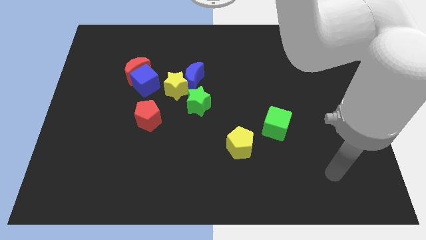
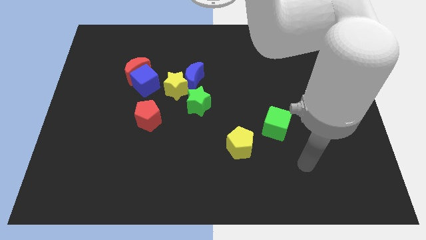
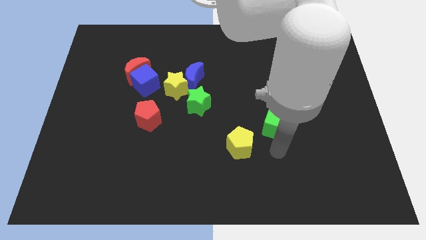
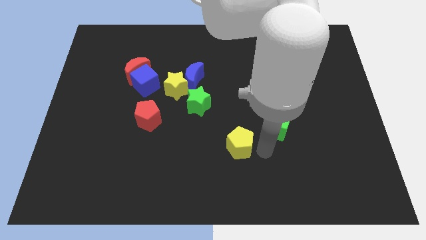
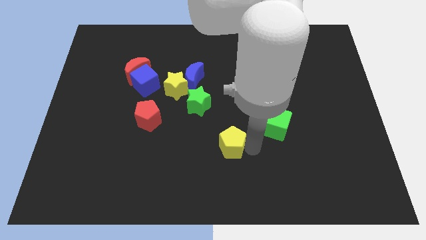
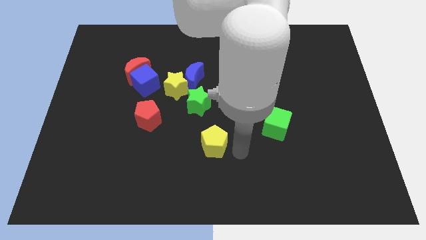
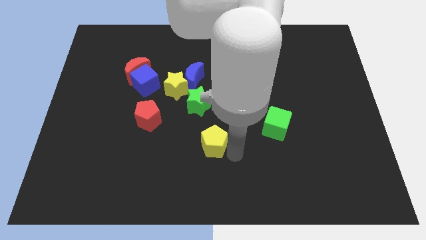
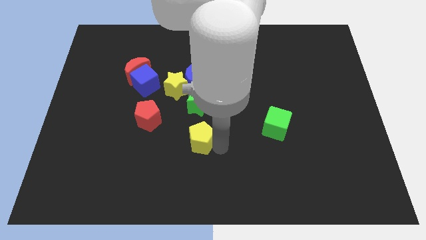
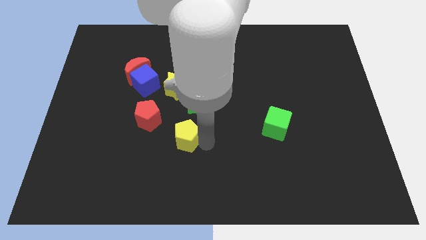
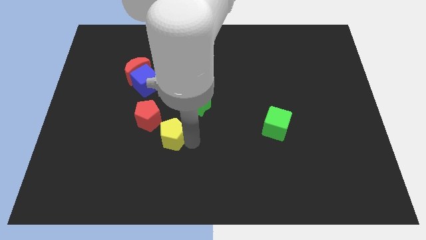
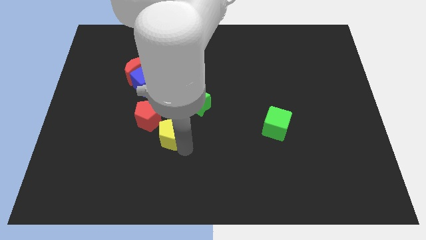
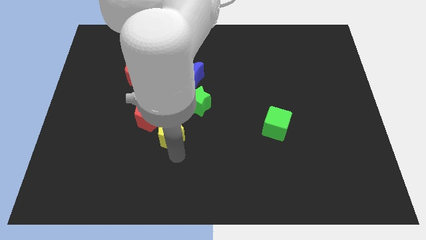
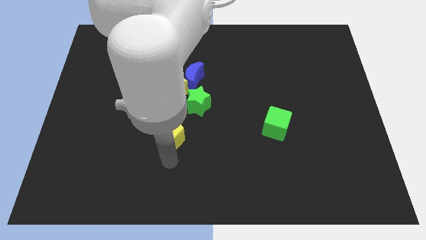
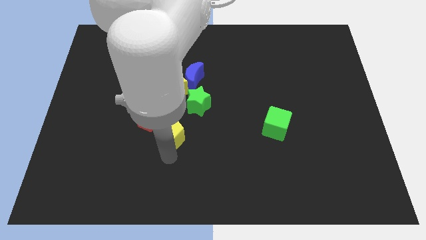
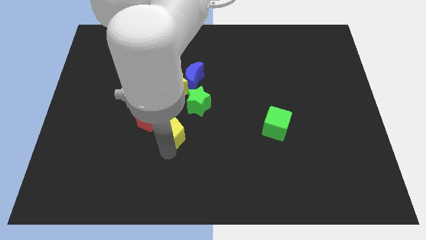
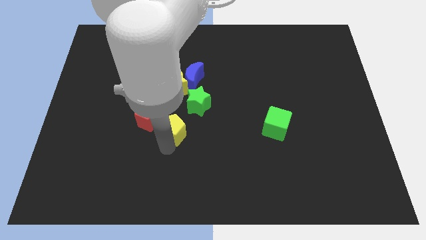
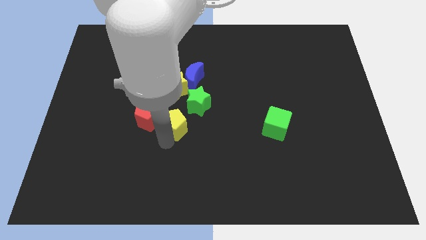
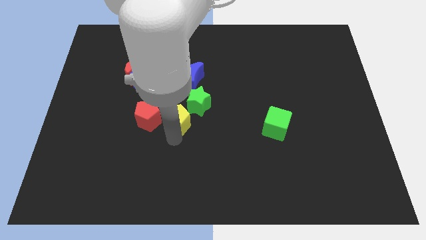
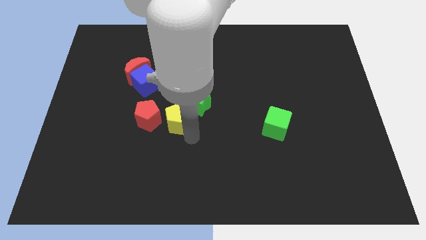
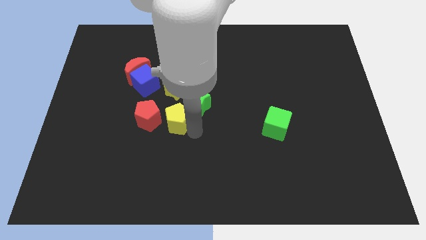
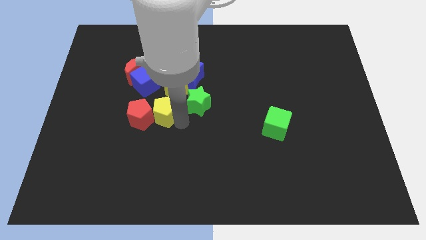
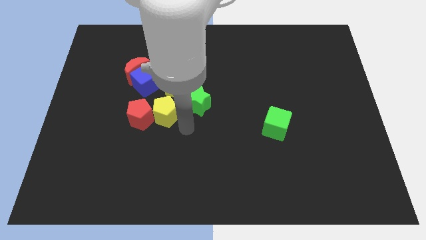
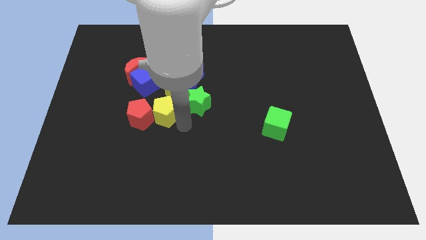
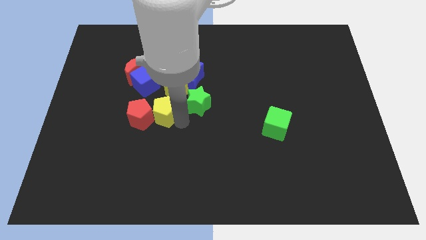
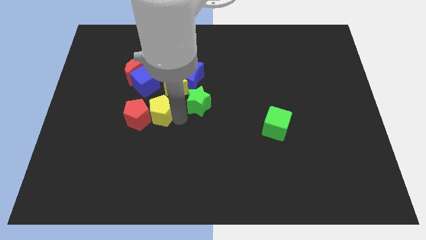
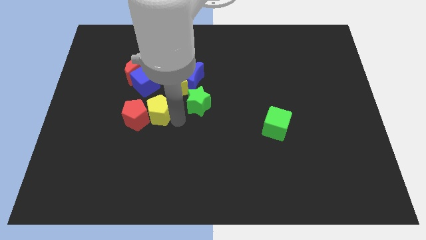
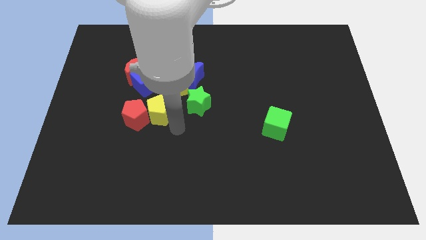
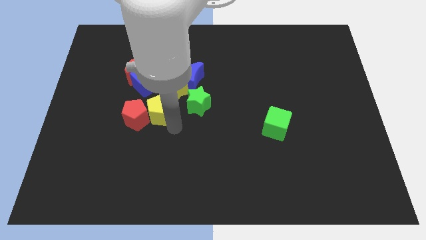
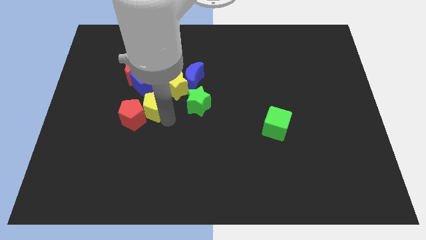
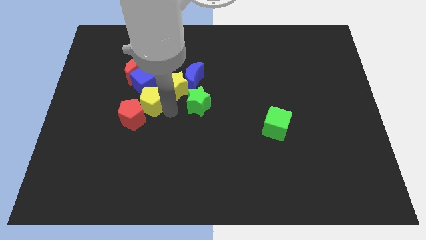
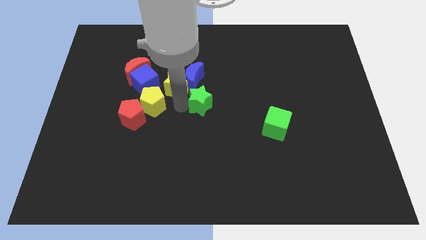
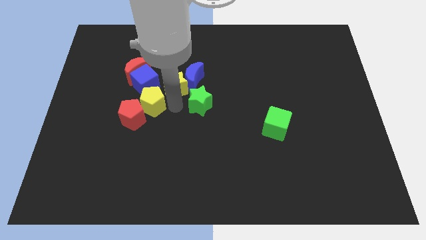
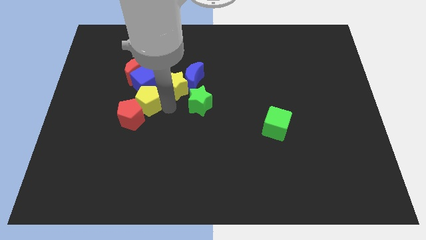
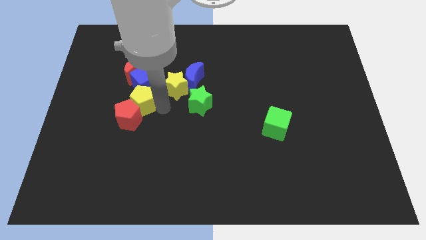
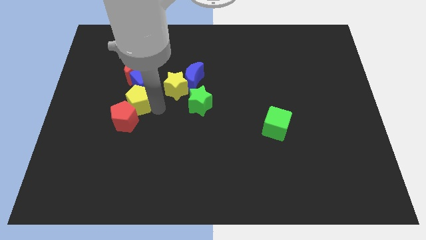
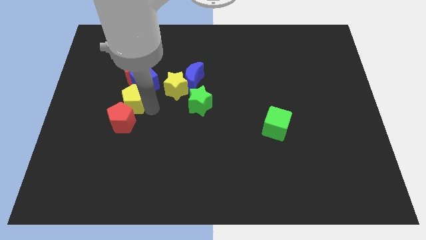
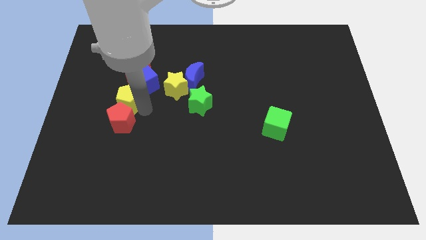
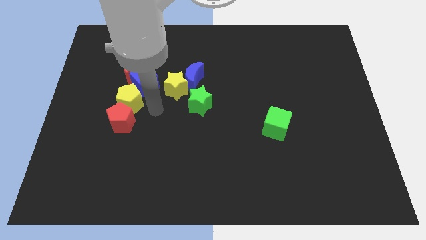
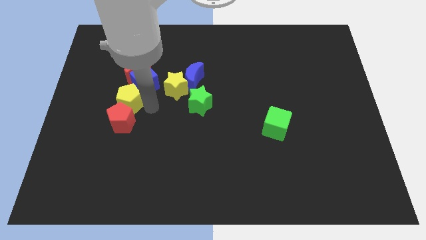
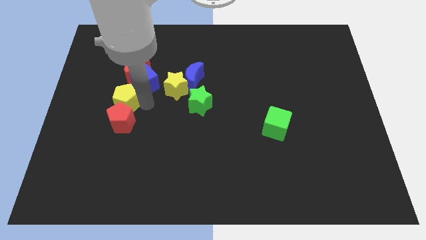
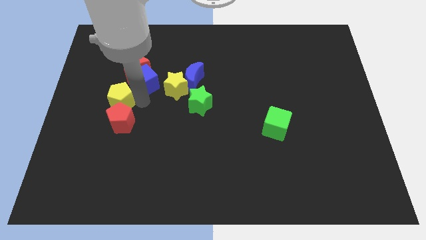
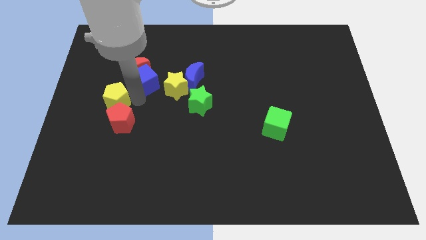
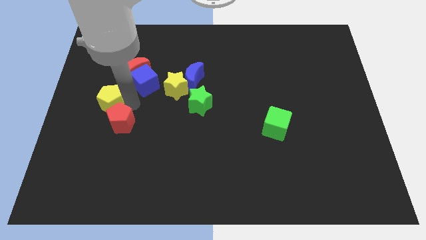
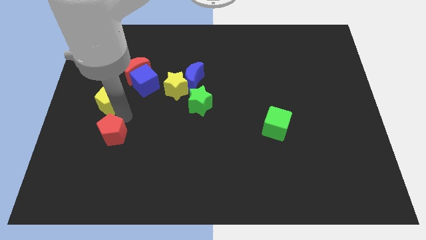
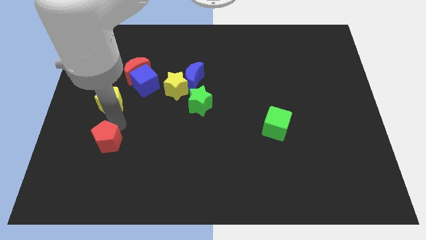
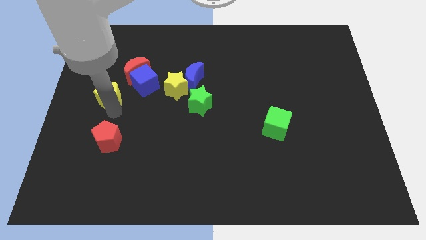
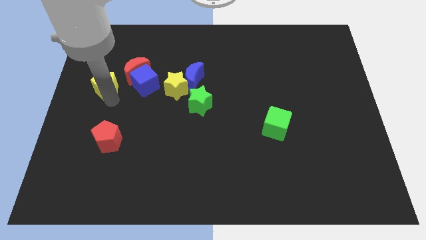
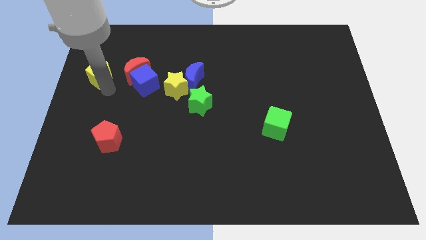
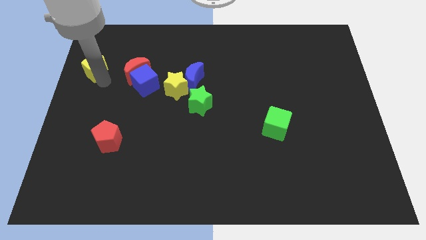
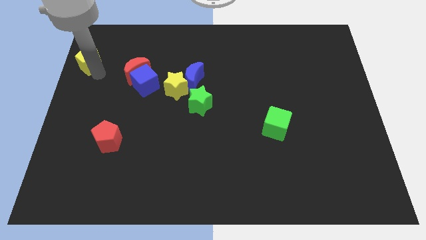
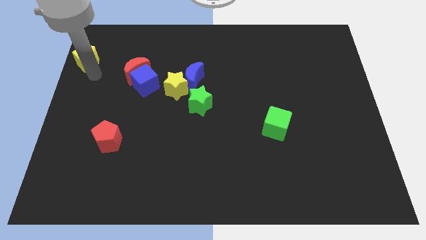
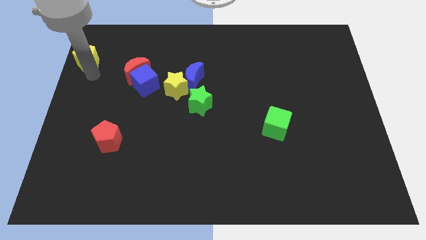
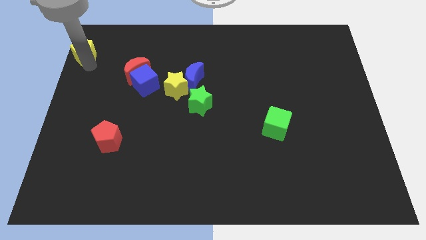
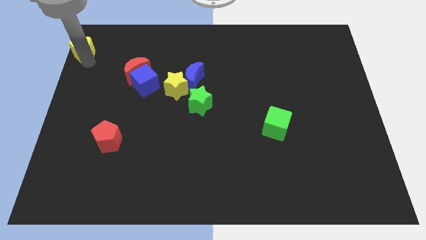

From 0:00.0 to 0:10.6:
move the yellow pentagon to the top left

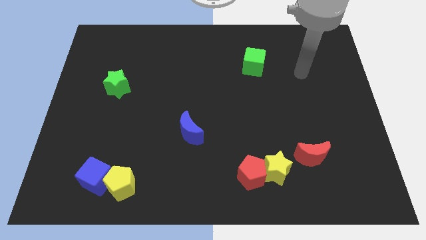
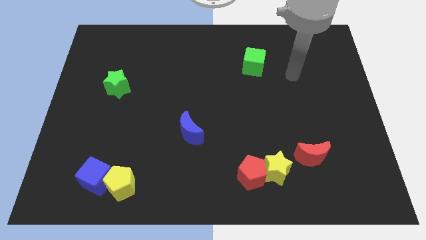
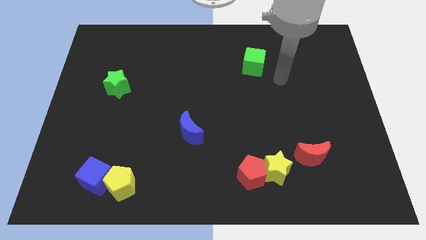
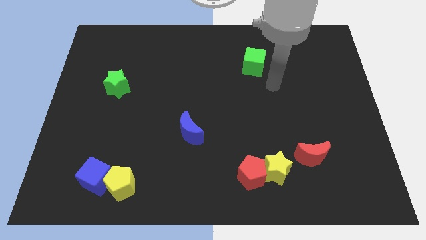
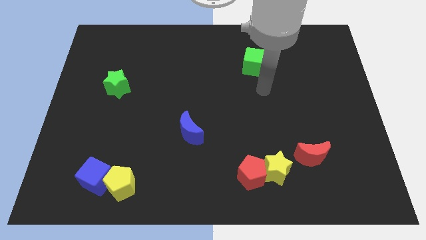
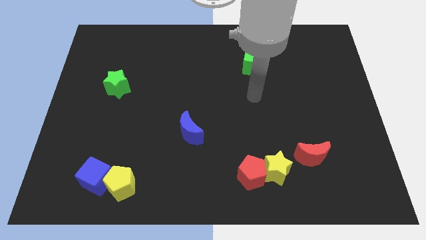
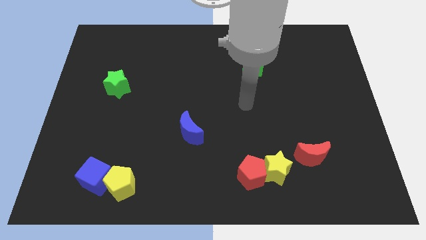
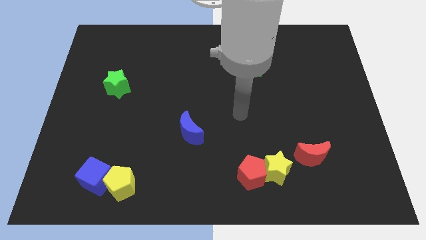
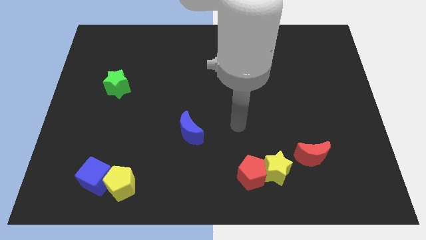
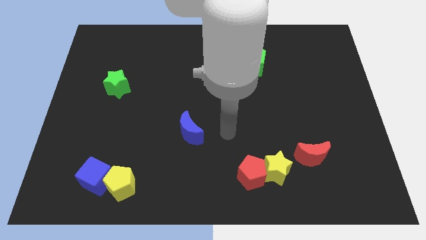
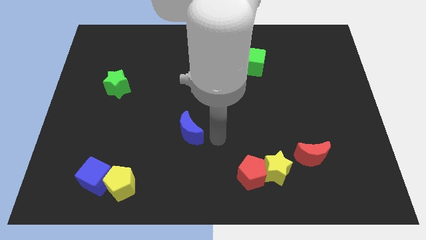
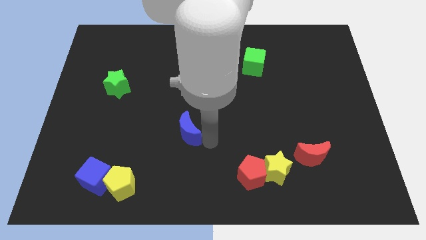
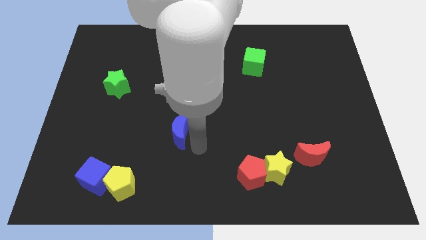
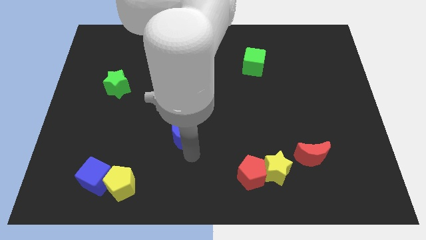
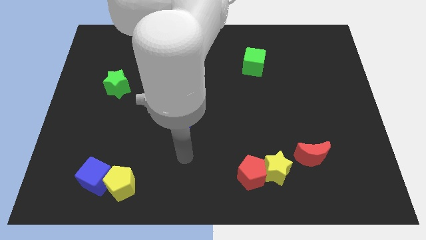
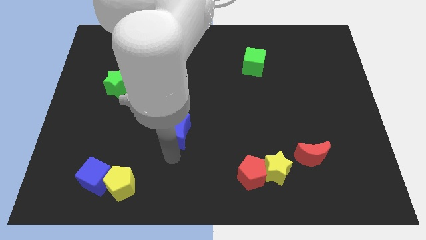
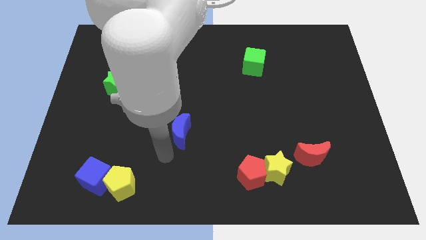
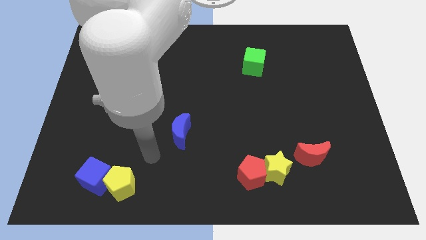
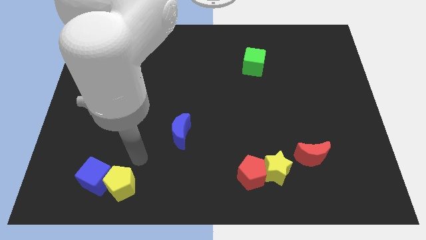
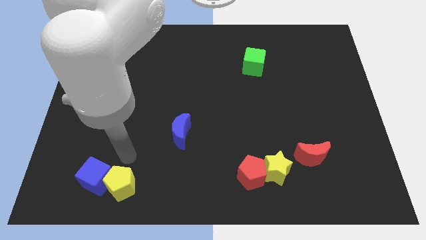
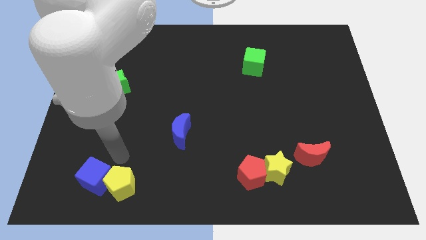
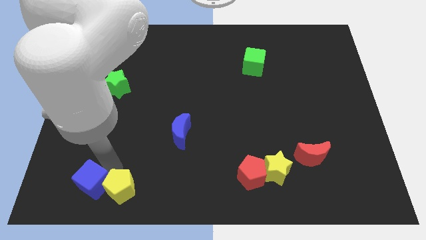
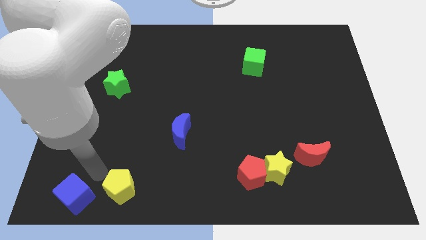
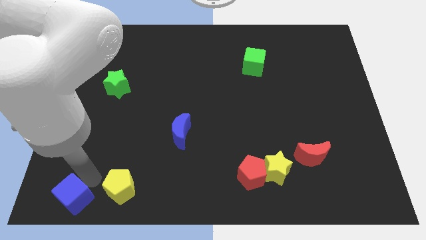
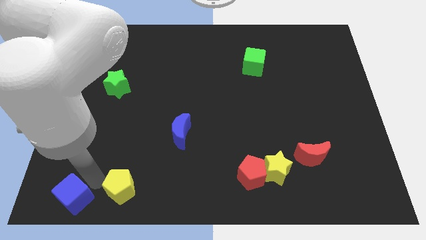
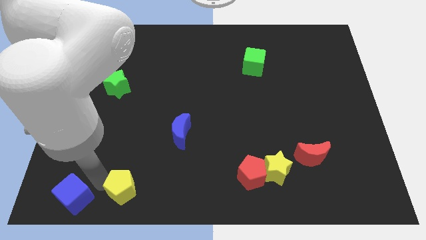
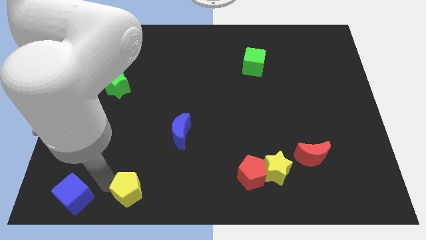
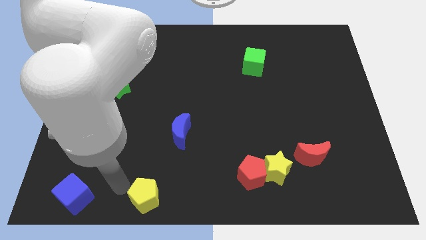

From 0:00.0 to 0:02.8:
slide the yellow pentagon to the bottom
